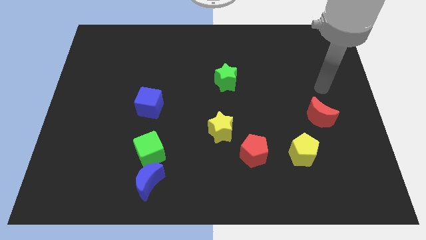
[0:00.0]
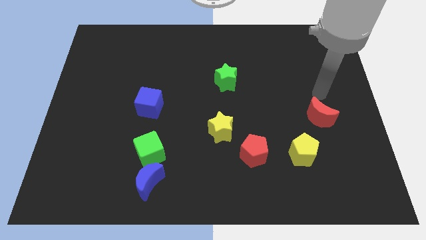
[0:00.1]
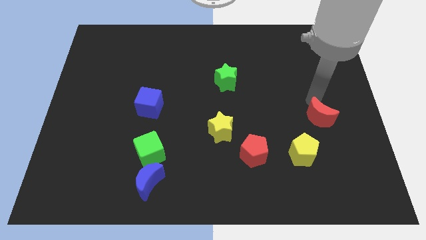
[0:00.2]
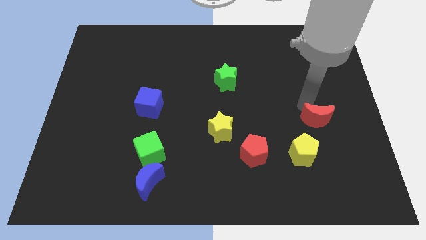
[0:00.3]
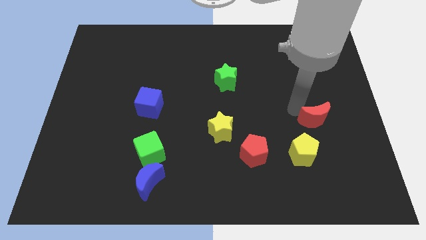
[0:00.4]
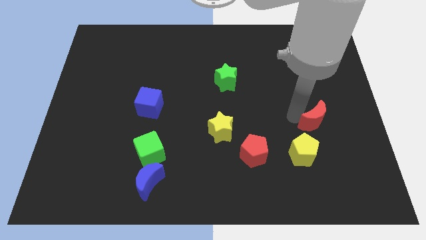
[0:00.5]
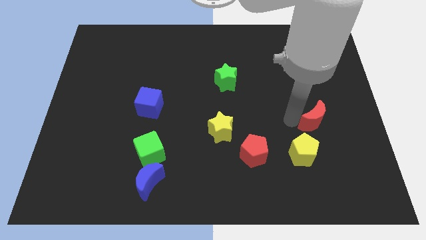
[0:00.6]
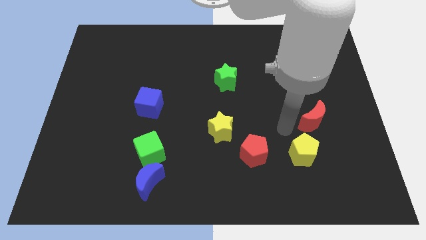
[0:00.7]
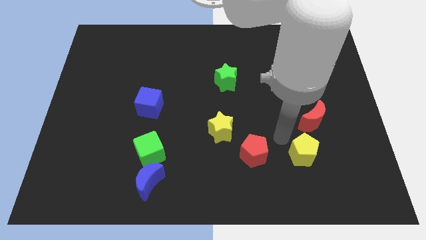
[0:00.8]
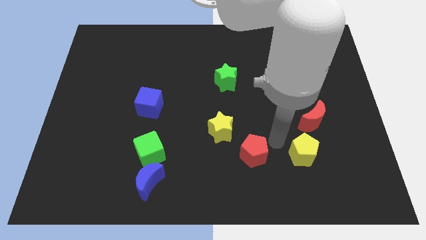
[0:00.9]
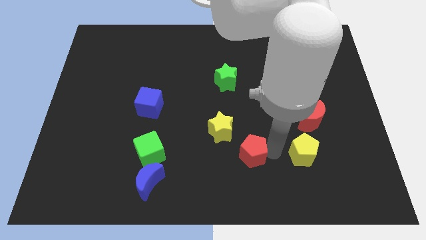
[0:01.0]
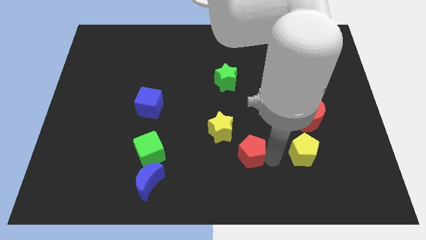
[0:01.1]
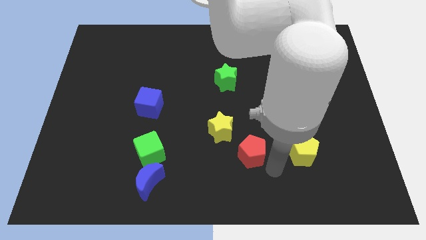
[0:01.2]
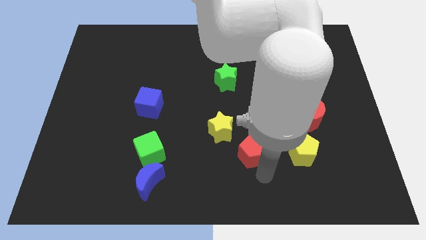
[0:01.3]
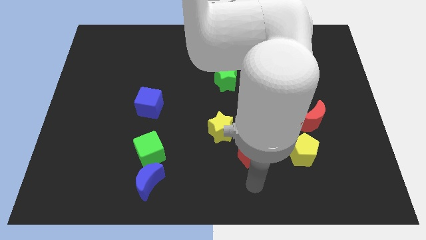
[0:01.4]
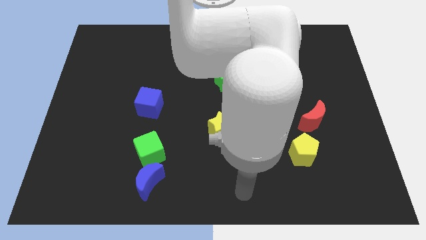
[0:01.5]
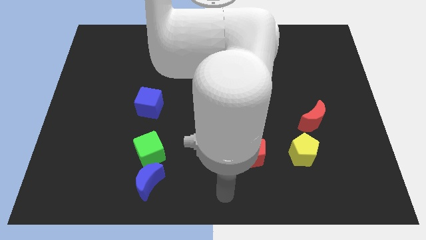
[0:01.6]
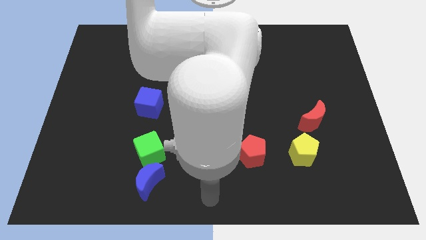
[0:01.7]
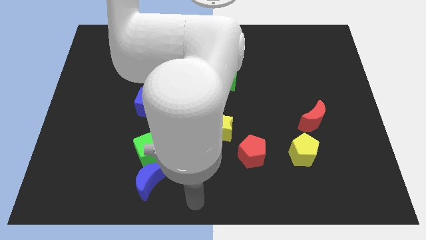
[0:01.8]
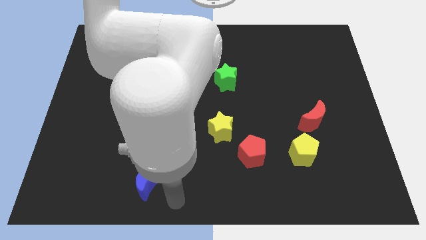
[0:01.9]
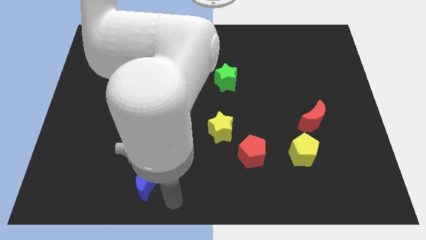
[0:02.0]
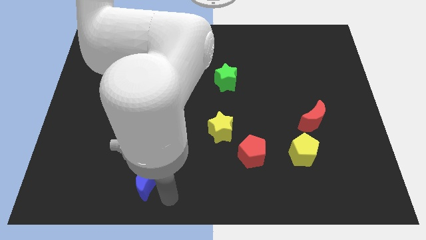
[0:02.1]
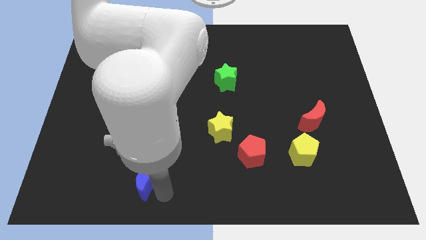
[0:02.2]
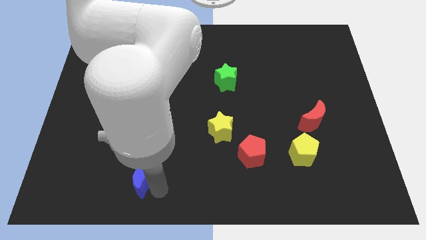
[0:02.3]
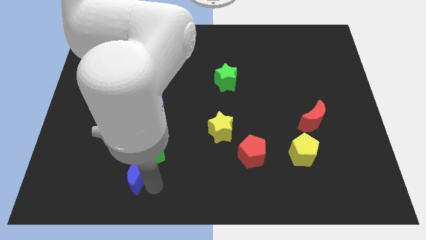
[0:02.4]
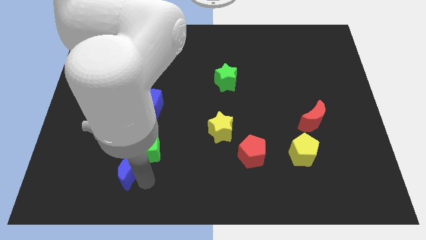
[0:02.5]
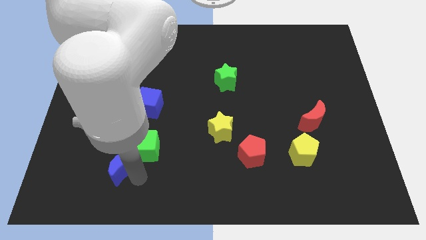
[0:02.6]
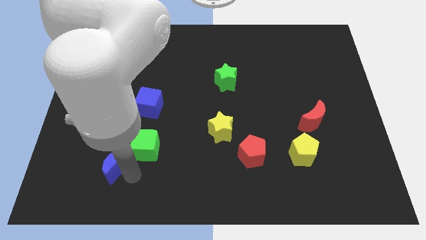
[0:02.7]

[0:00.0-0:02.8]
slide the blue moon up and then left slightly

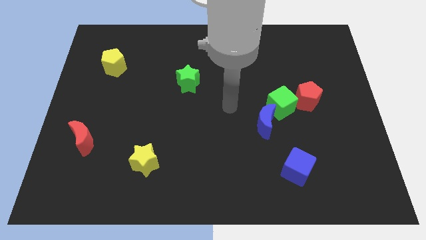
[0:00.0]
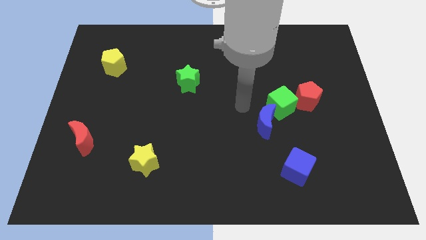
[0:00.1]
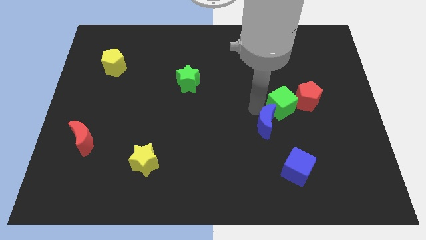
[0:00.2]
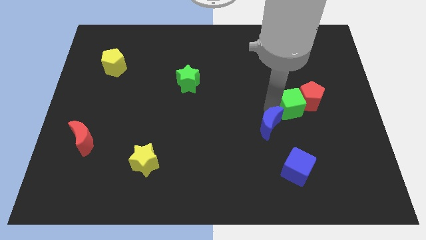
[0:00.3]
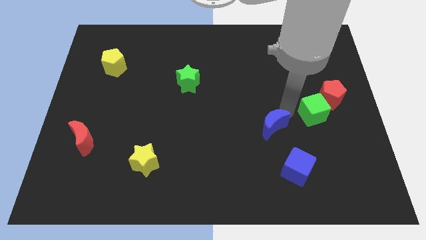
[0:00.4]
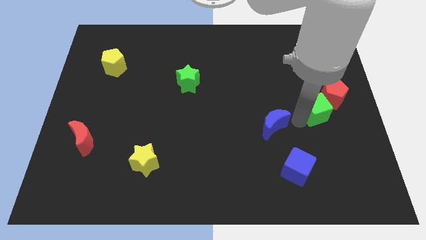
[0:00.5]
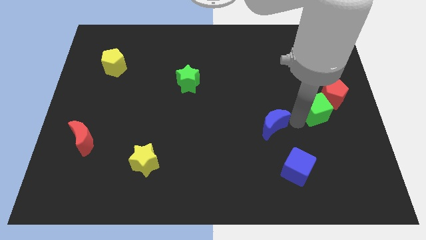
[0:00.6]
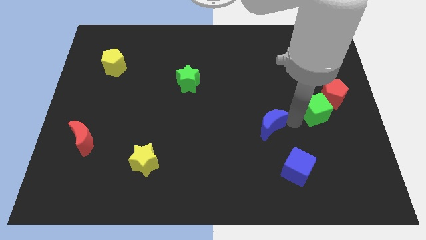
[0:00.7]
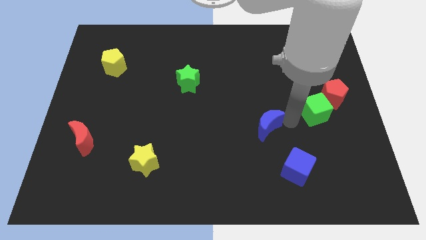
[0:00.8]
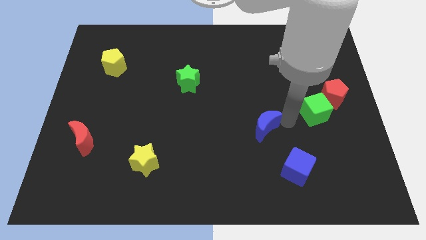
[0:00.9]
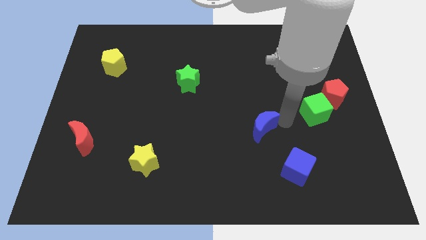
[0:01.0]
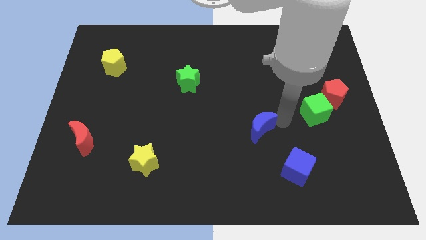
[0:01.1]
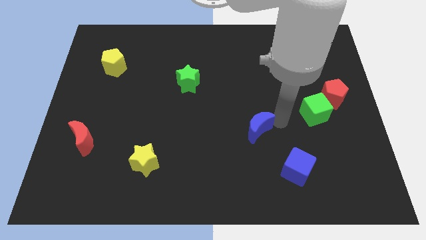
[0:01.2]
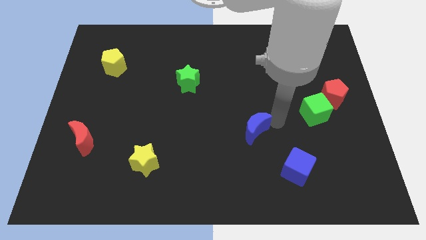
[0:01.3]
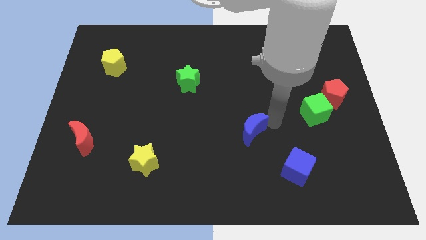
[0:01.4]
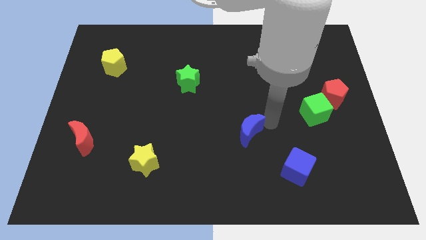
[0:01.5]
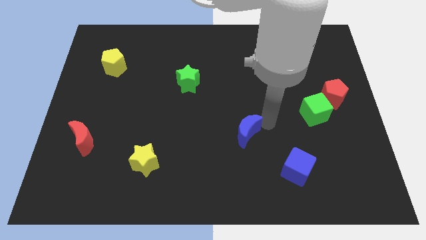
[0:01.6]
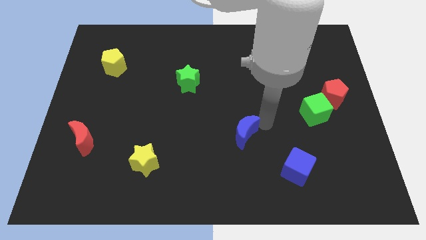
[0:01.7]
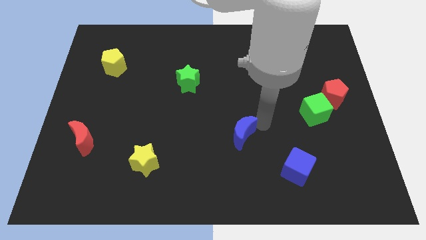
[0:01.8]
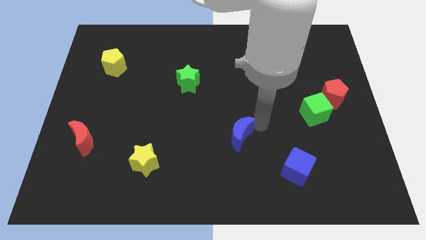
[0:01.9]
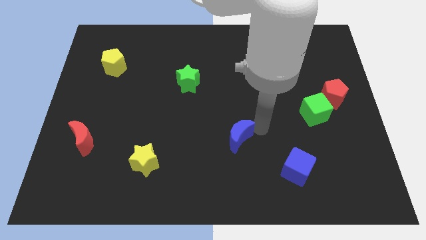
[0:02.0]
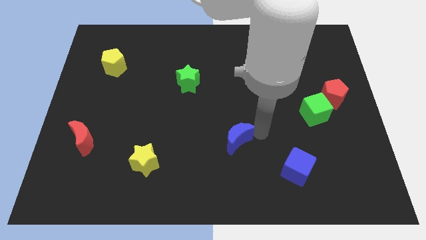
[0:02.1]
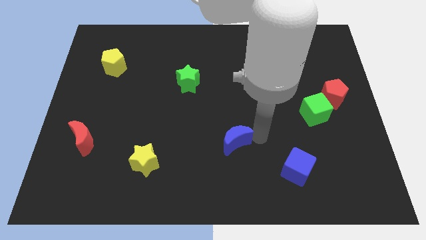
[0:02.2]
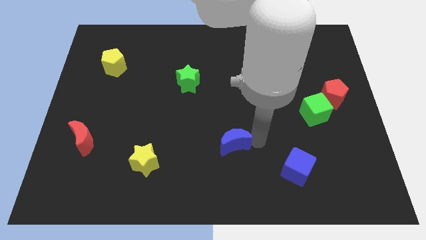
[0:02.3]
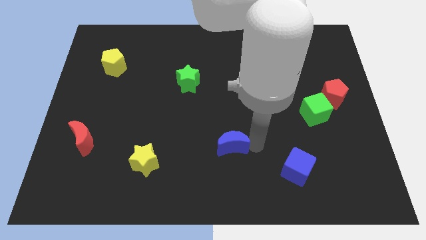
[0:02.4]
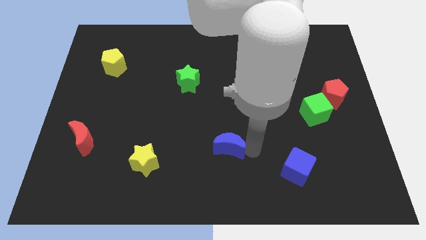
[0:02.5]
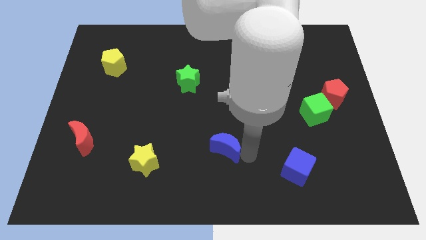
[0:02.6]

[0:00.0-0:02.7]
move the blue moon left a little

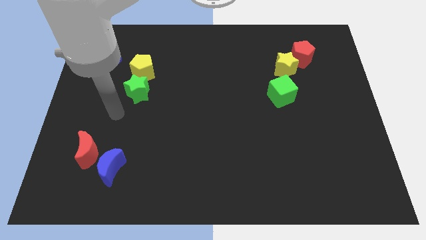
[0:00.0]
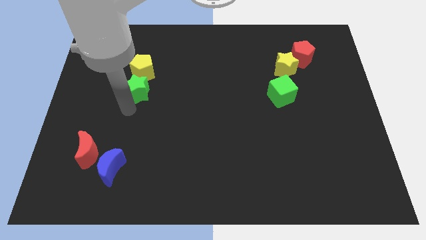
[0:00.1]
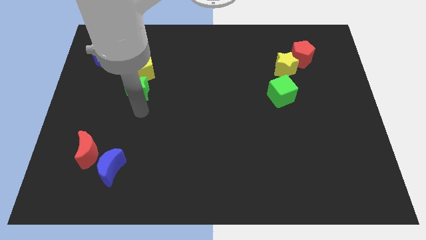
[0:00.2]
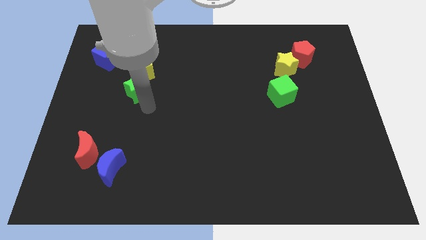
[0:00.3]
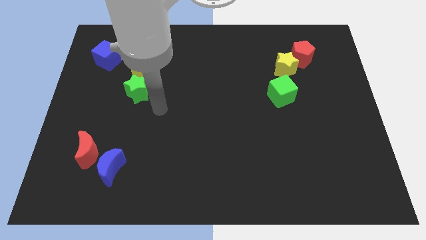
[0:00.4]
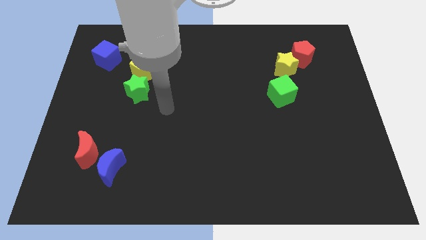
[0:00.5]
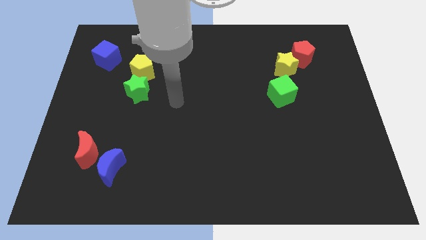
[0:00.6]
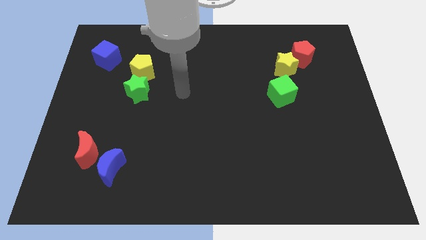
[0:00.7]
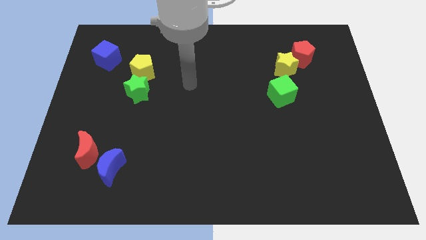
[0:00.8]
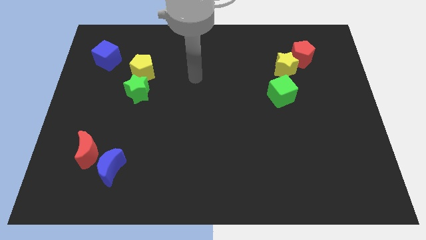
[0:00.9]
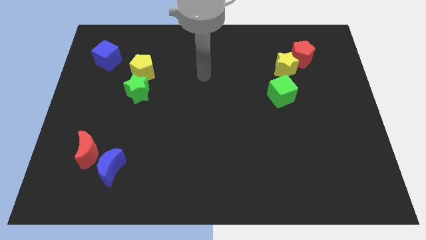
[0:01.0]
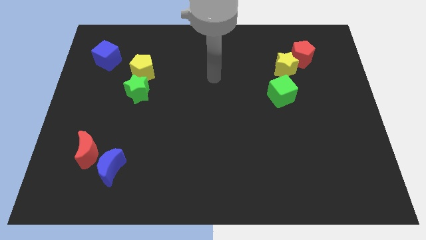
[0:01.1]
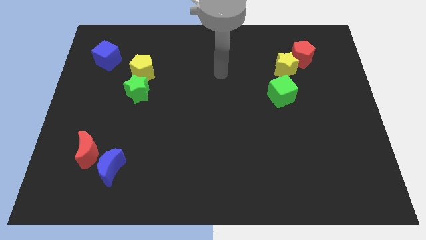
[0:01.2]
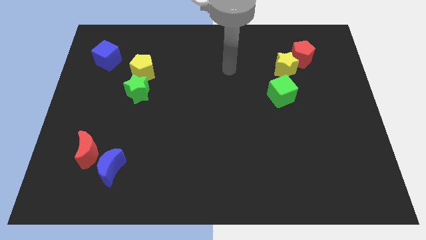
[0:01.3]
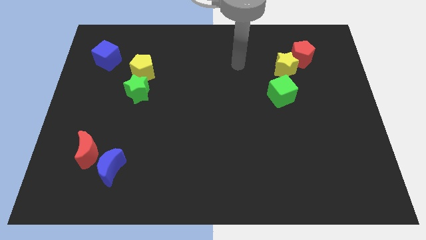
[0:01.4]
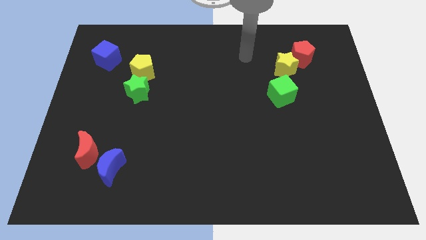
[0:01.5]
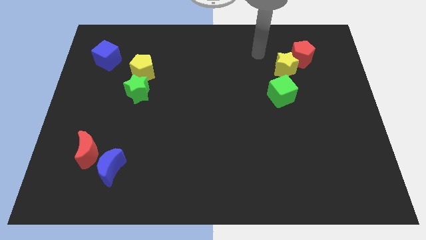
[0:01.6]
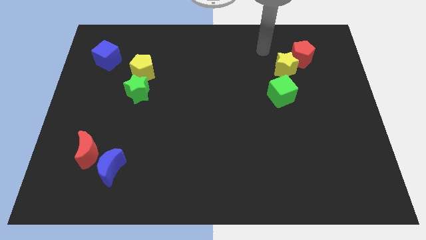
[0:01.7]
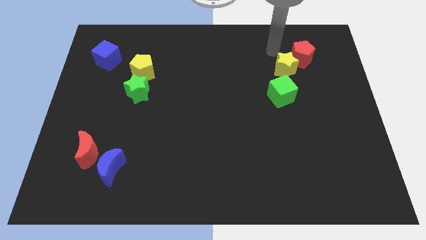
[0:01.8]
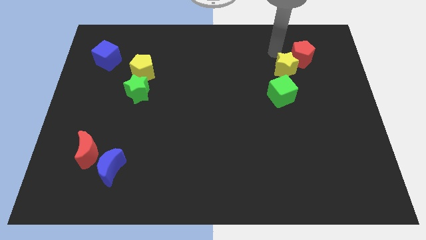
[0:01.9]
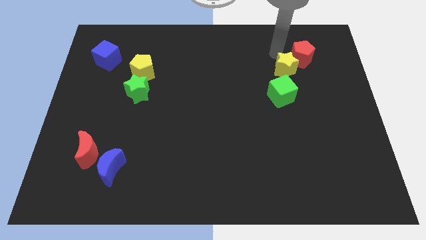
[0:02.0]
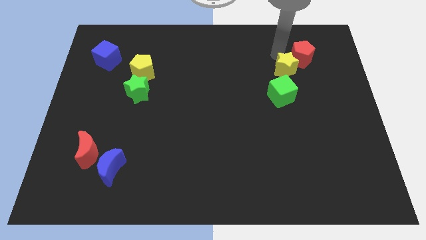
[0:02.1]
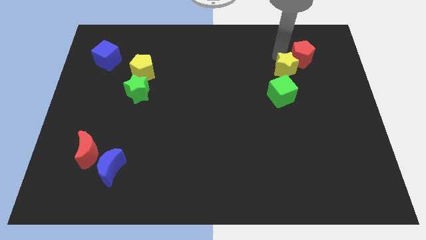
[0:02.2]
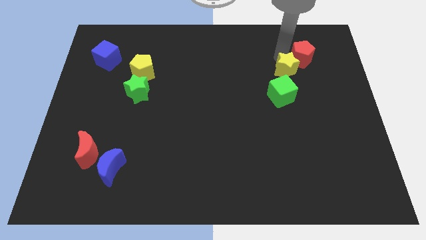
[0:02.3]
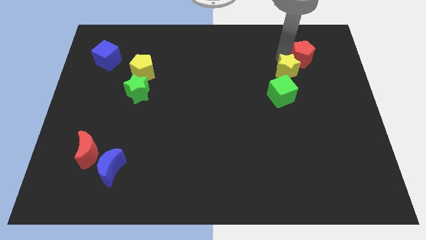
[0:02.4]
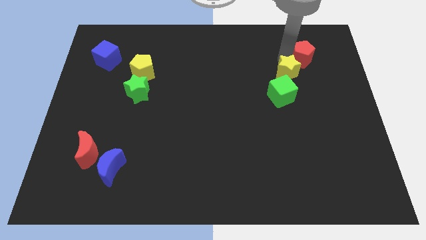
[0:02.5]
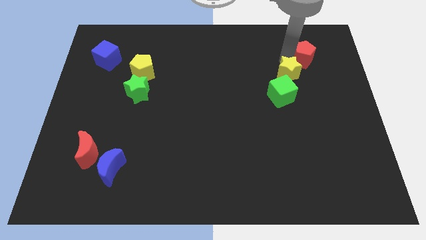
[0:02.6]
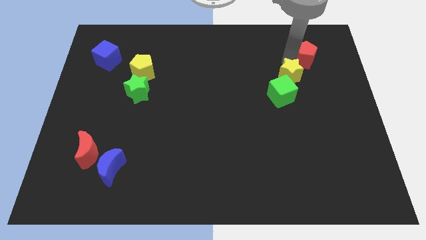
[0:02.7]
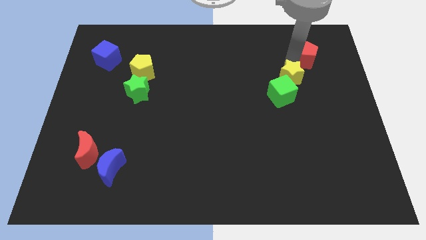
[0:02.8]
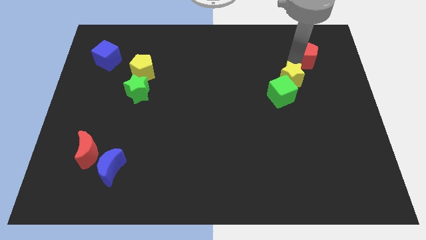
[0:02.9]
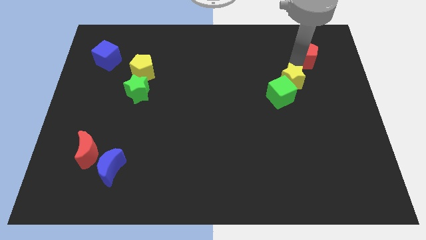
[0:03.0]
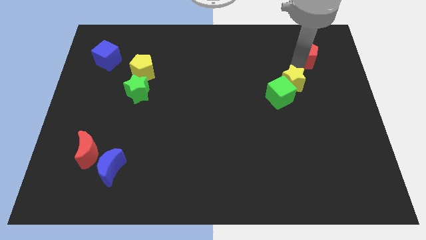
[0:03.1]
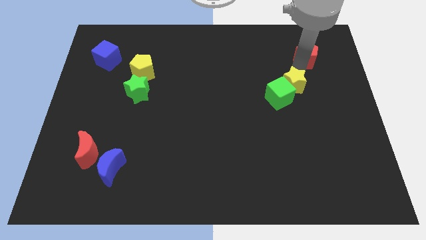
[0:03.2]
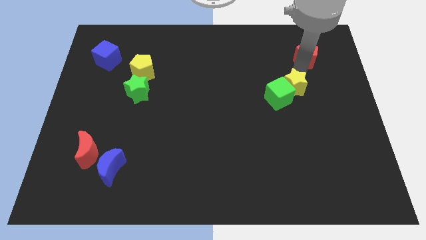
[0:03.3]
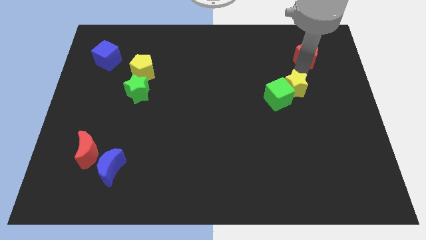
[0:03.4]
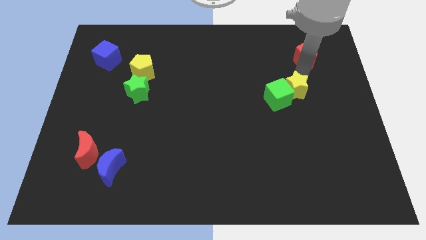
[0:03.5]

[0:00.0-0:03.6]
push the yellow star a bit downwards
